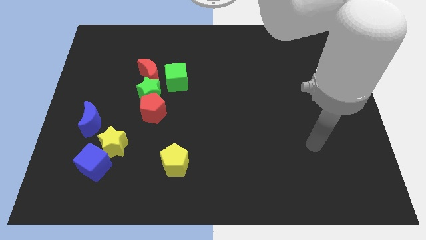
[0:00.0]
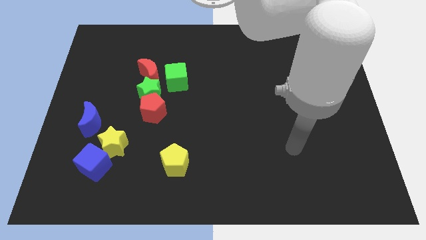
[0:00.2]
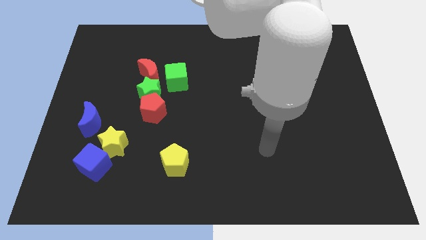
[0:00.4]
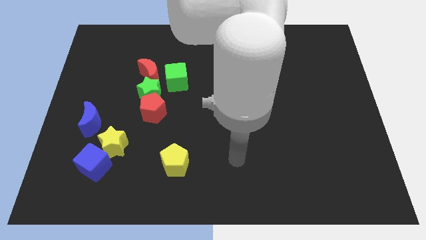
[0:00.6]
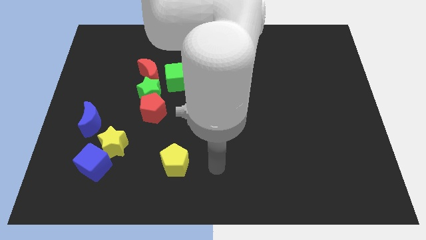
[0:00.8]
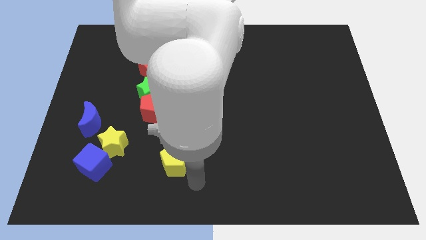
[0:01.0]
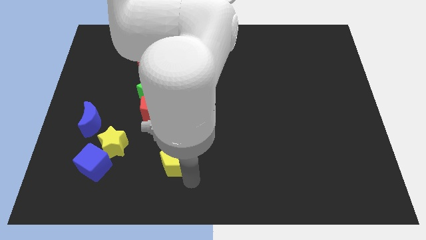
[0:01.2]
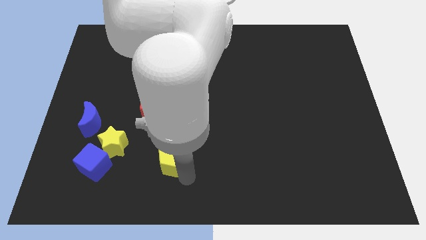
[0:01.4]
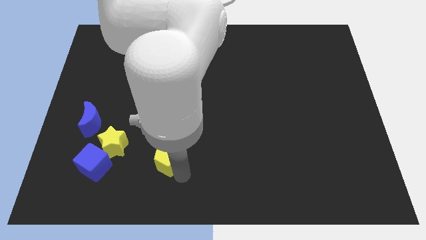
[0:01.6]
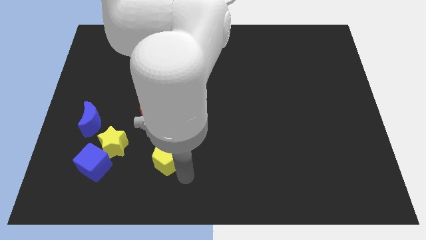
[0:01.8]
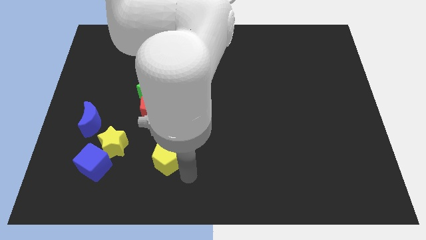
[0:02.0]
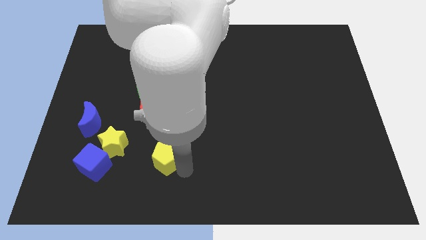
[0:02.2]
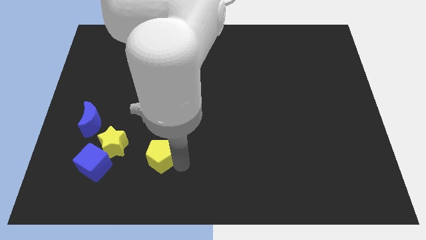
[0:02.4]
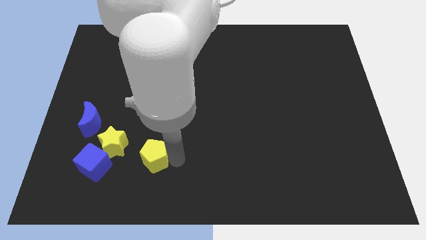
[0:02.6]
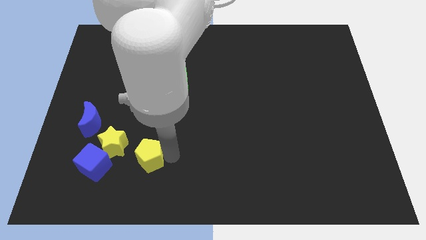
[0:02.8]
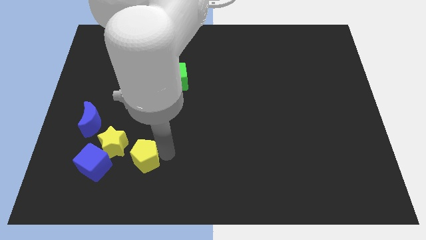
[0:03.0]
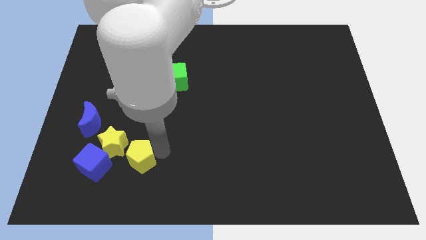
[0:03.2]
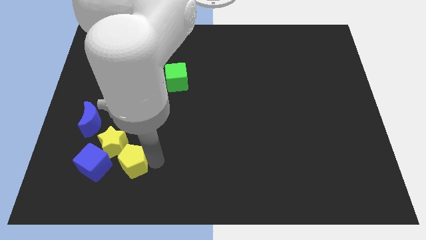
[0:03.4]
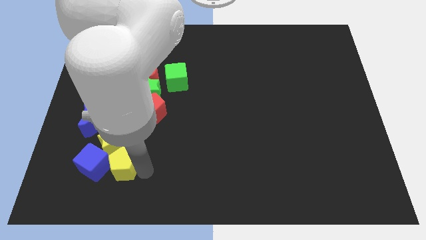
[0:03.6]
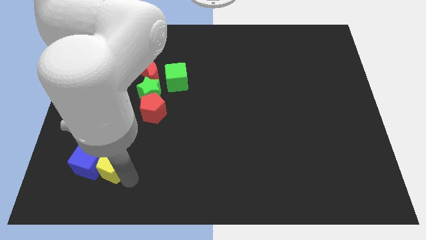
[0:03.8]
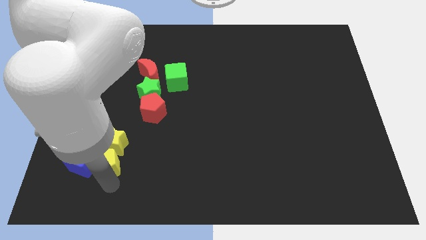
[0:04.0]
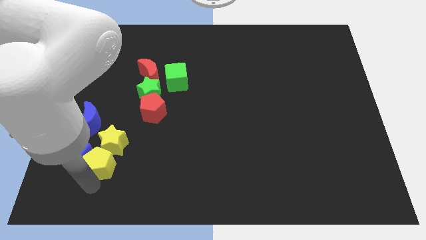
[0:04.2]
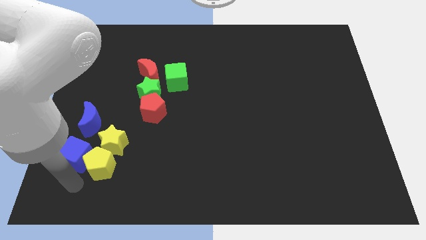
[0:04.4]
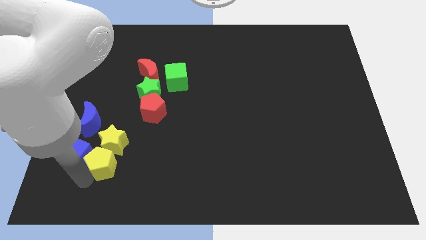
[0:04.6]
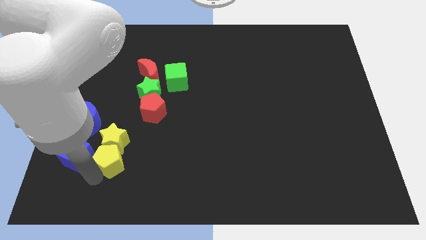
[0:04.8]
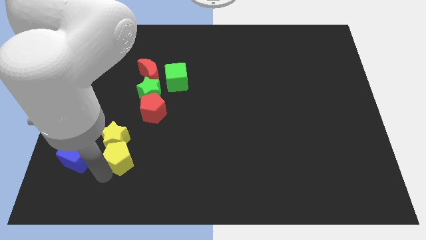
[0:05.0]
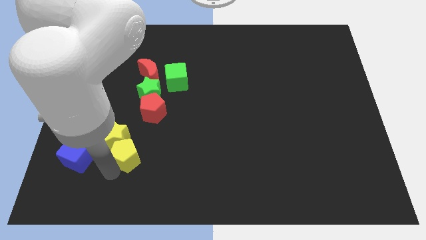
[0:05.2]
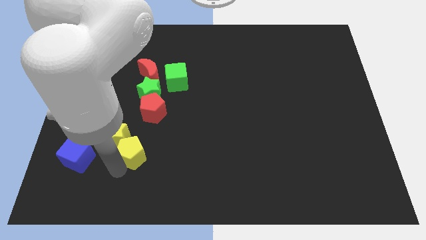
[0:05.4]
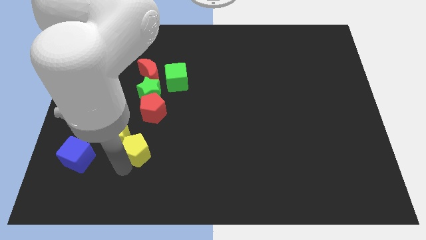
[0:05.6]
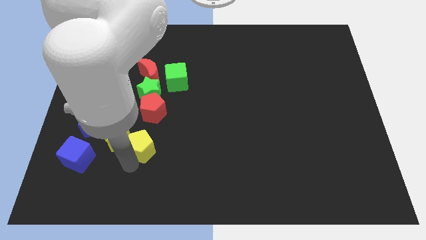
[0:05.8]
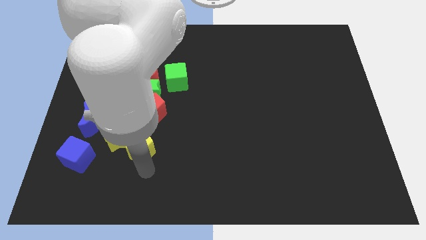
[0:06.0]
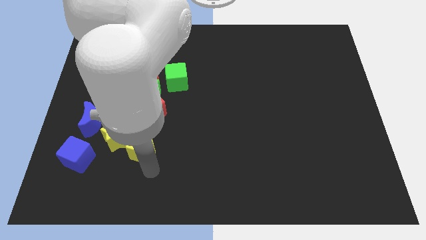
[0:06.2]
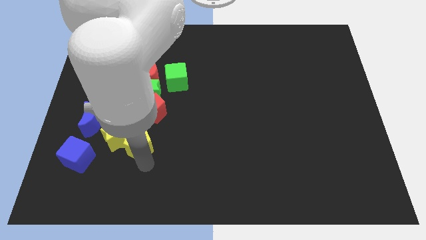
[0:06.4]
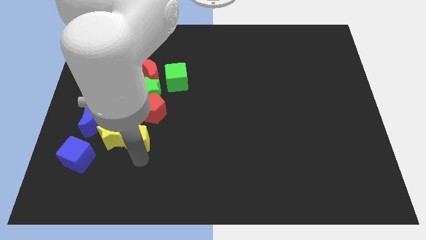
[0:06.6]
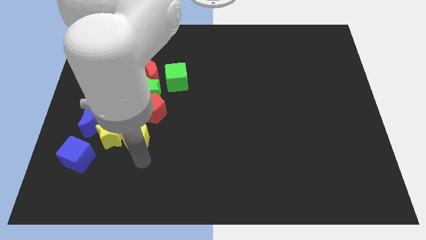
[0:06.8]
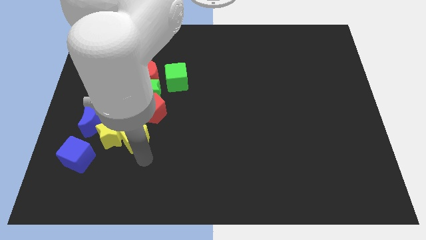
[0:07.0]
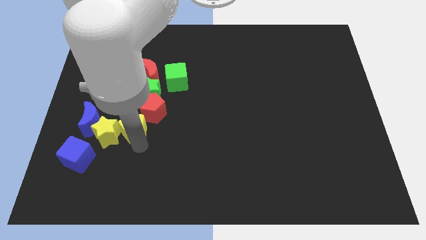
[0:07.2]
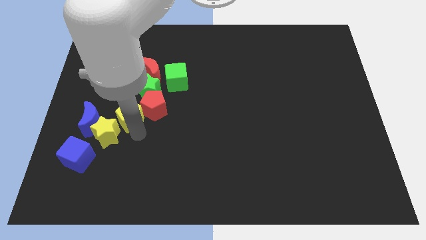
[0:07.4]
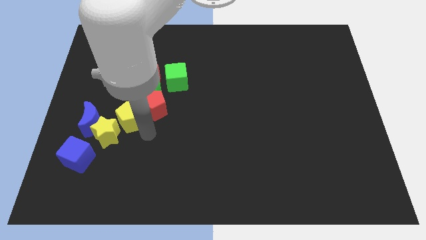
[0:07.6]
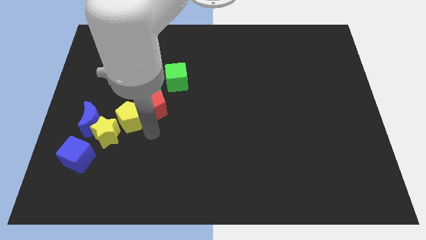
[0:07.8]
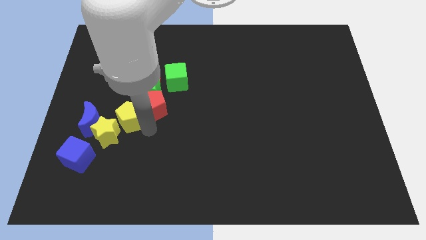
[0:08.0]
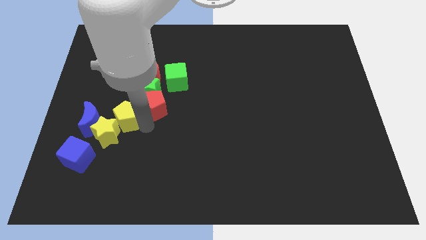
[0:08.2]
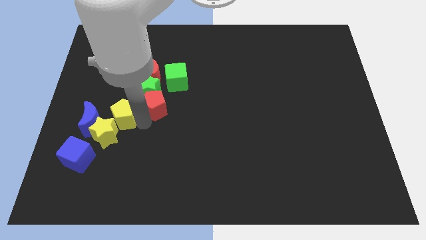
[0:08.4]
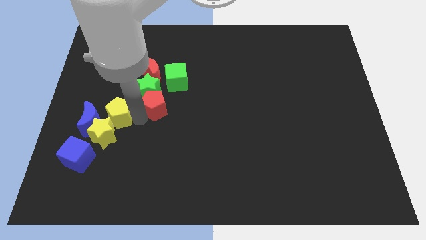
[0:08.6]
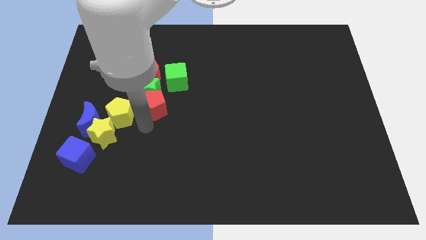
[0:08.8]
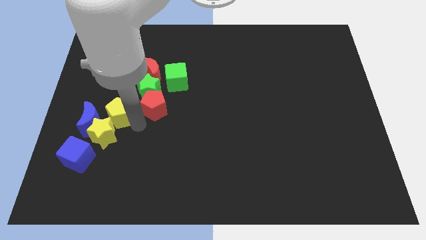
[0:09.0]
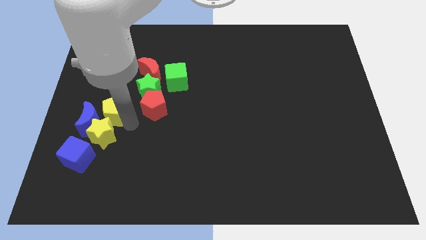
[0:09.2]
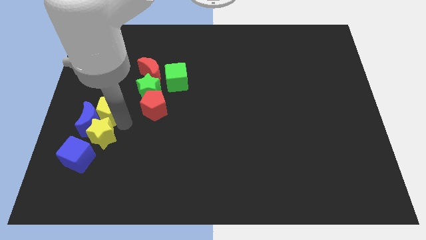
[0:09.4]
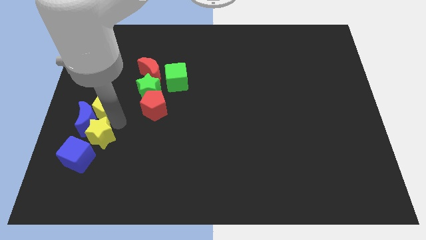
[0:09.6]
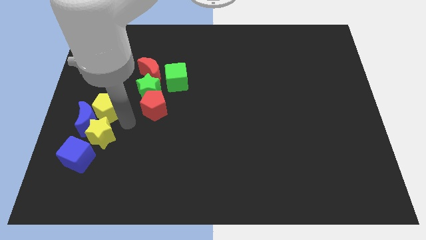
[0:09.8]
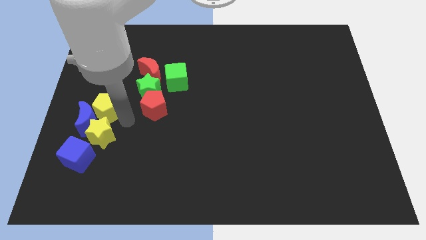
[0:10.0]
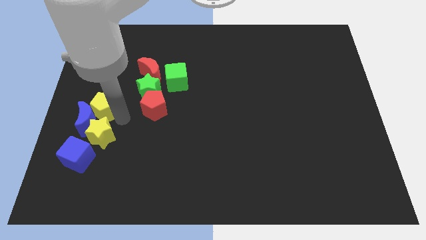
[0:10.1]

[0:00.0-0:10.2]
slide the yellow pentagon to the center left

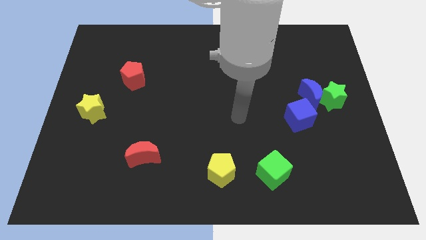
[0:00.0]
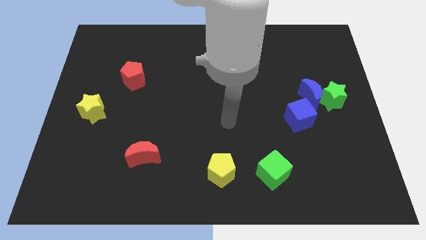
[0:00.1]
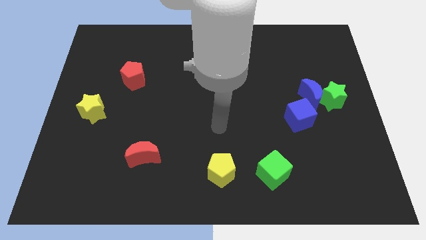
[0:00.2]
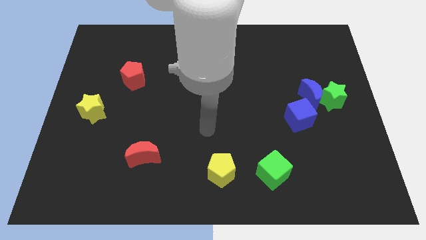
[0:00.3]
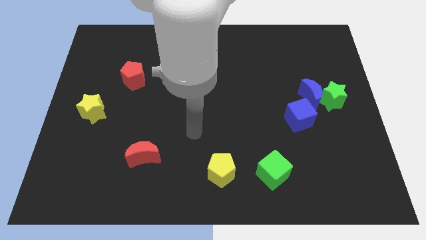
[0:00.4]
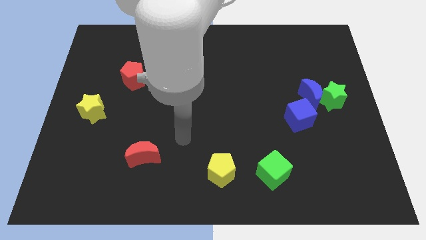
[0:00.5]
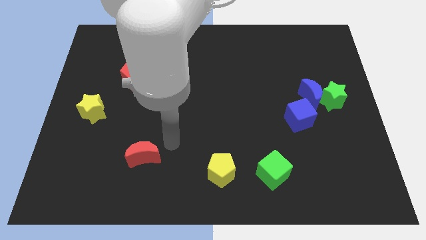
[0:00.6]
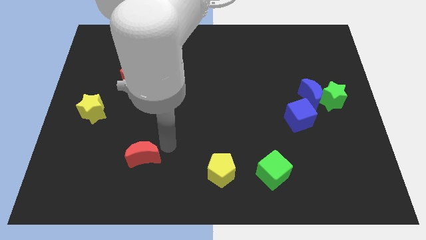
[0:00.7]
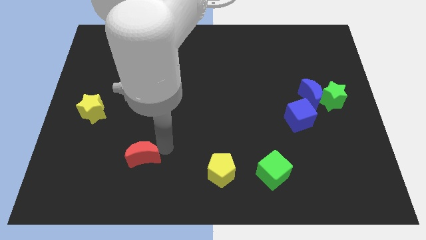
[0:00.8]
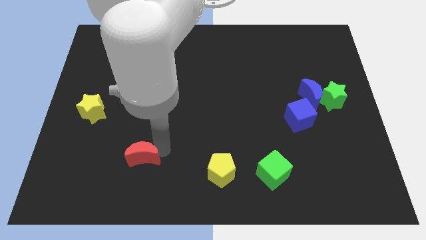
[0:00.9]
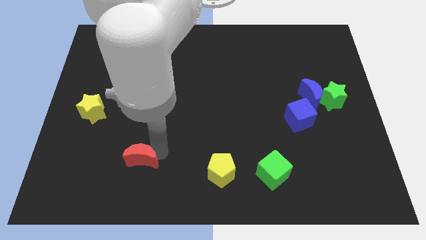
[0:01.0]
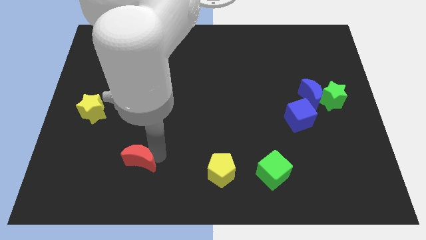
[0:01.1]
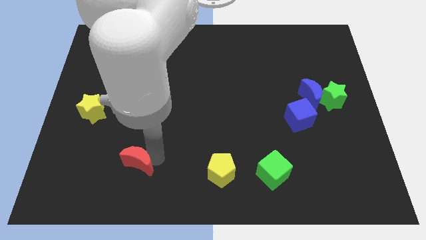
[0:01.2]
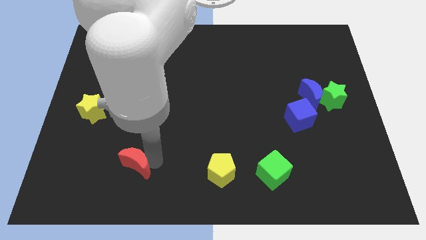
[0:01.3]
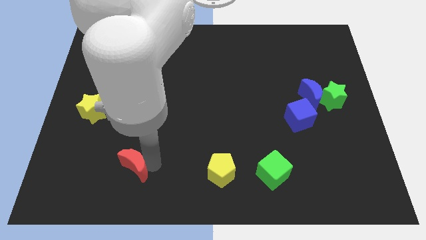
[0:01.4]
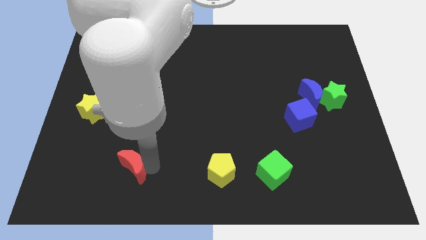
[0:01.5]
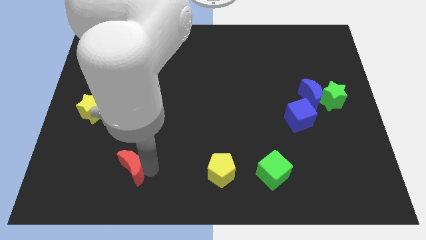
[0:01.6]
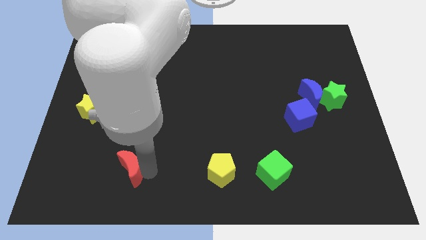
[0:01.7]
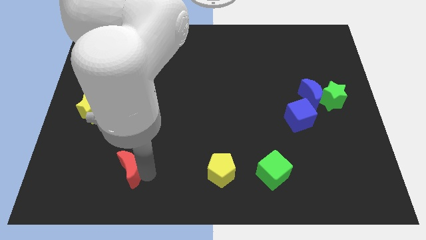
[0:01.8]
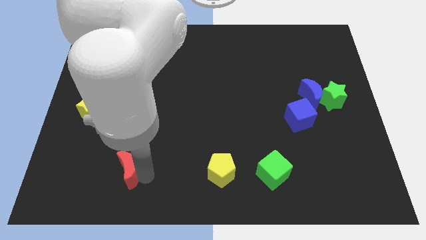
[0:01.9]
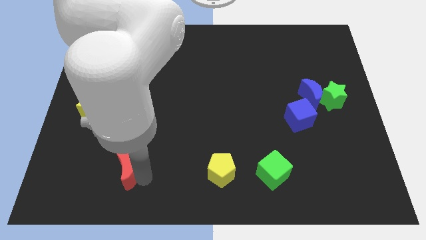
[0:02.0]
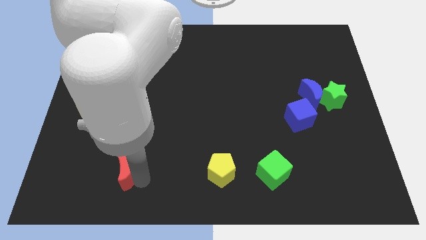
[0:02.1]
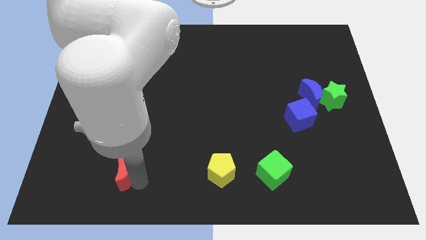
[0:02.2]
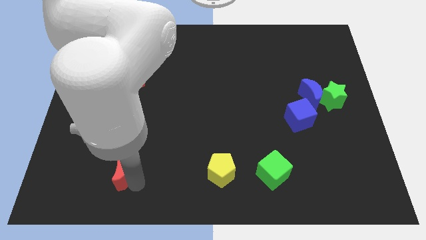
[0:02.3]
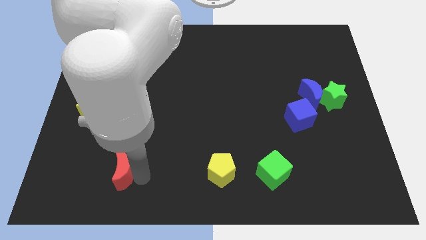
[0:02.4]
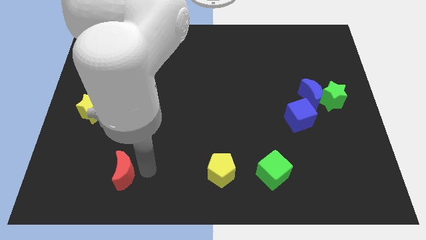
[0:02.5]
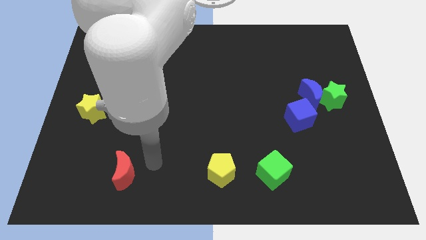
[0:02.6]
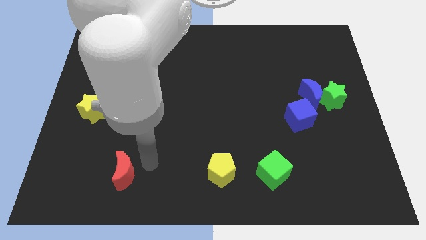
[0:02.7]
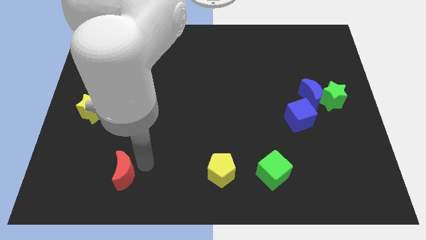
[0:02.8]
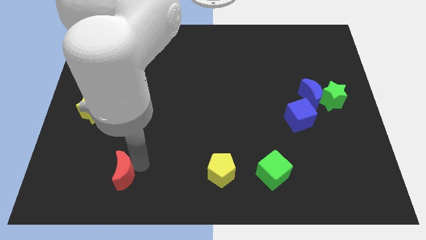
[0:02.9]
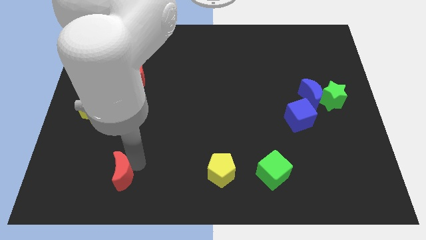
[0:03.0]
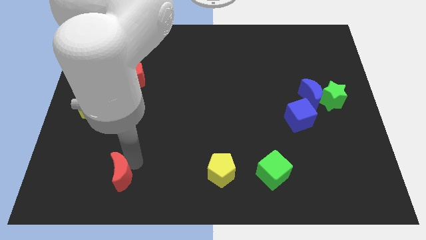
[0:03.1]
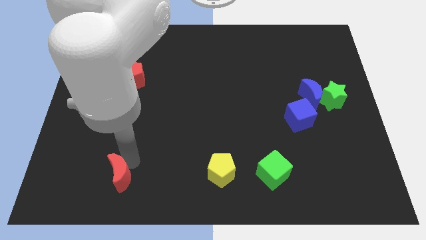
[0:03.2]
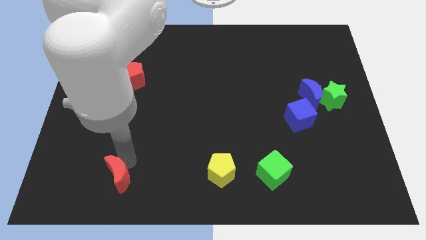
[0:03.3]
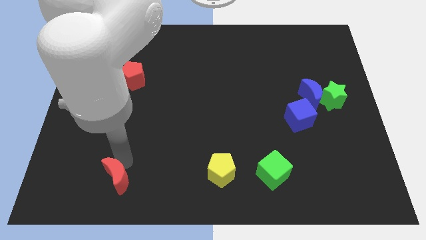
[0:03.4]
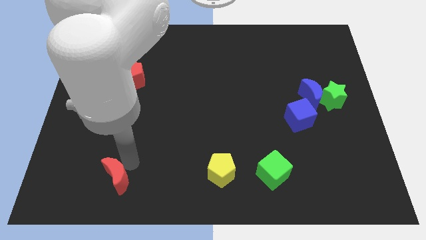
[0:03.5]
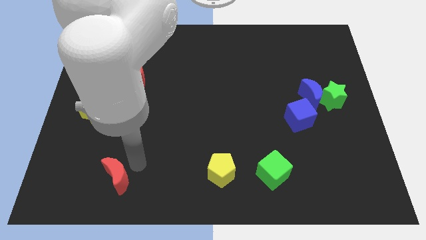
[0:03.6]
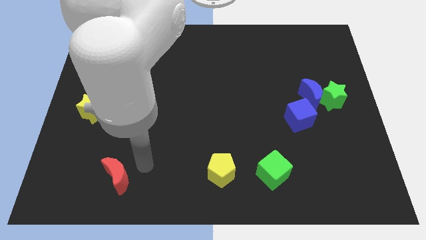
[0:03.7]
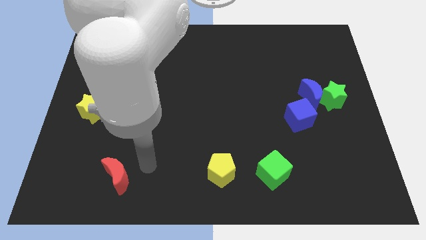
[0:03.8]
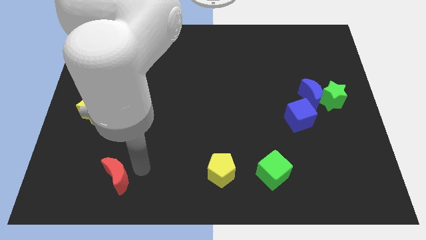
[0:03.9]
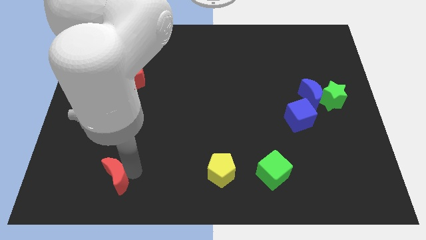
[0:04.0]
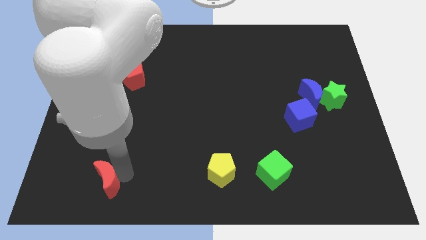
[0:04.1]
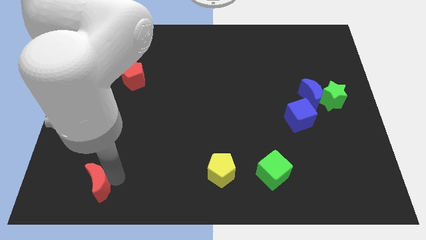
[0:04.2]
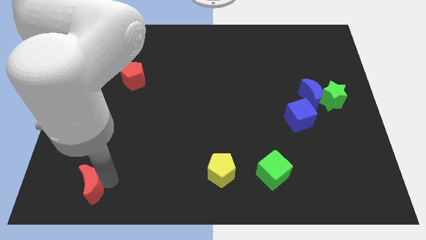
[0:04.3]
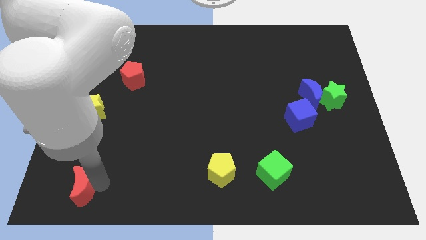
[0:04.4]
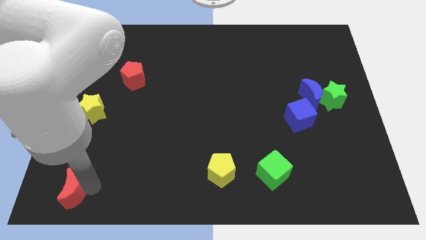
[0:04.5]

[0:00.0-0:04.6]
move the red moon to the bottom left
